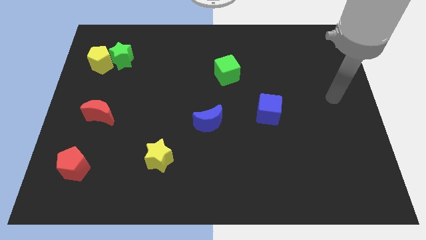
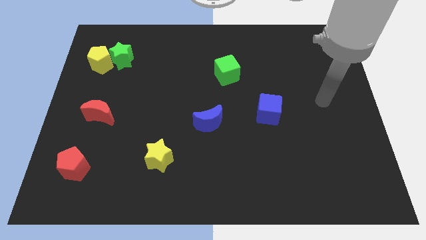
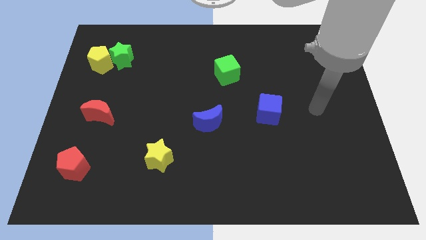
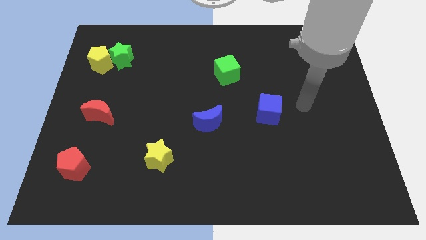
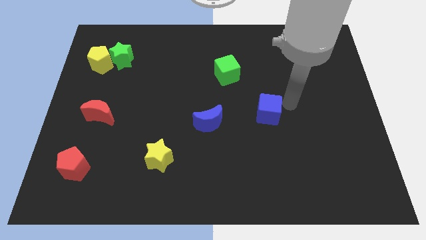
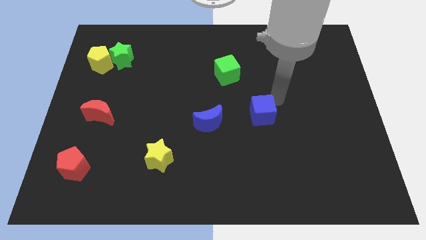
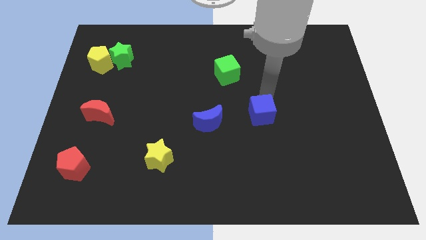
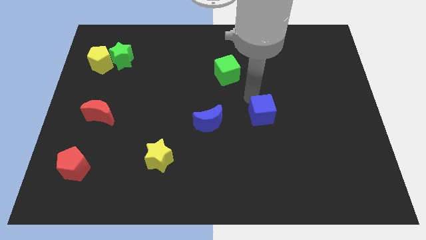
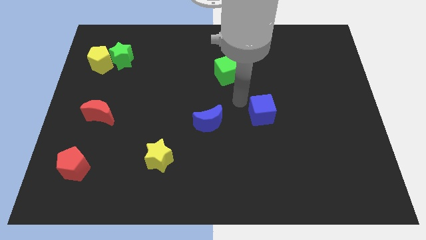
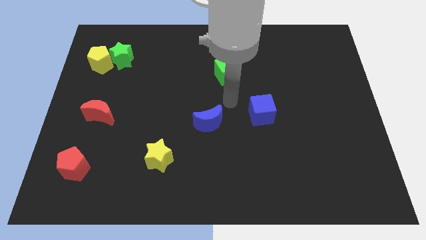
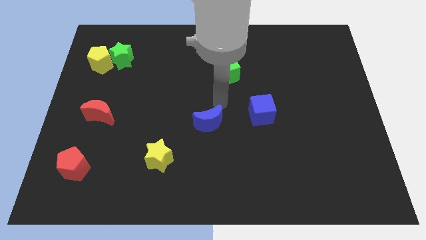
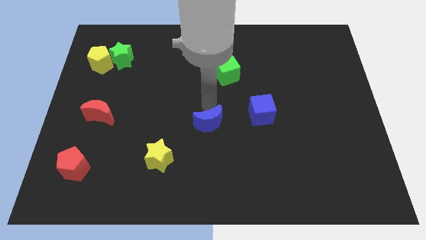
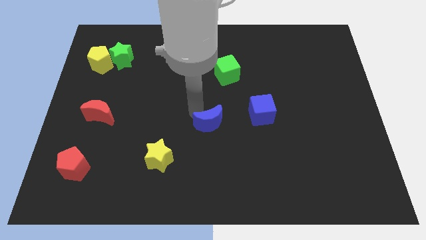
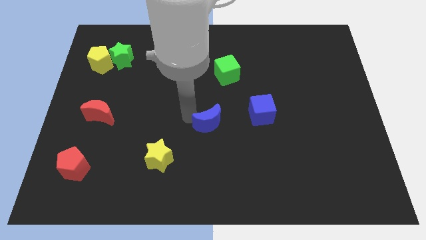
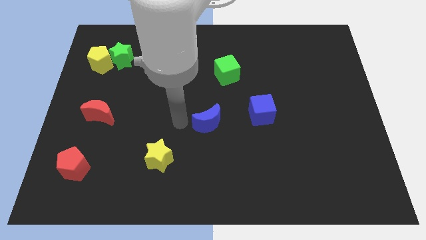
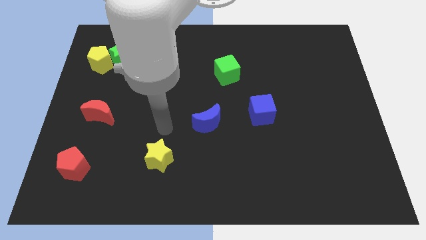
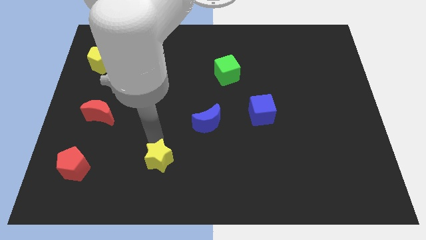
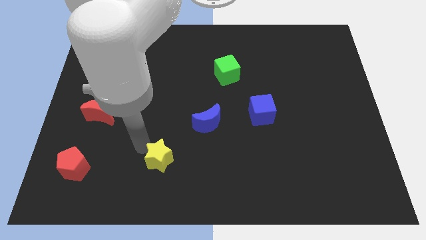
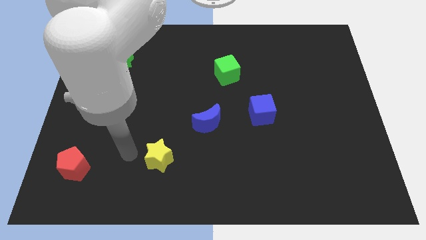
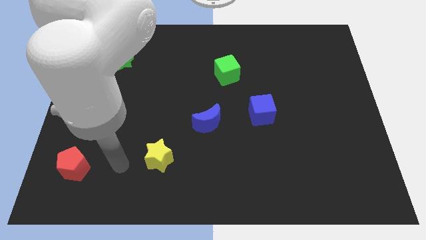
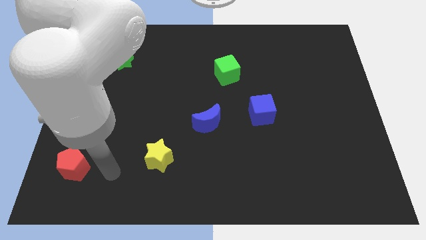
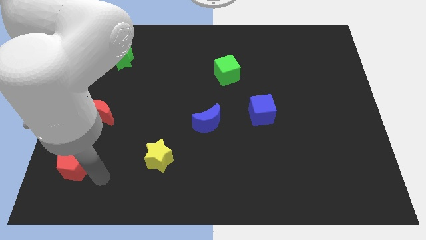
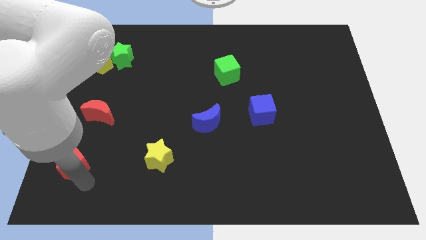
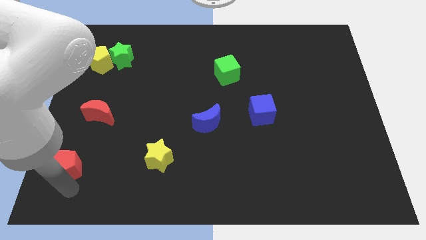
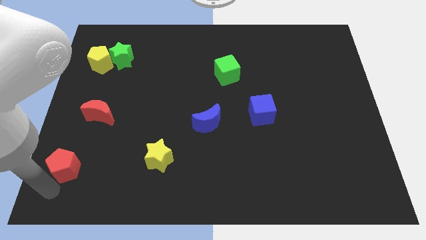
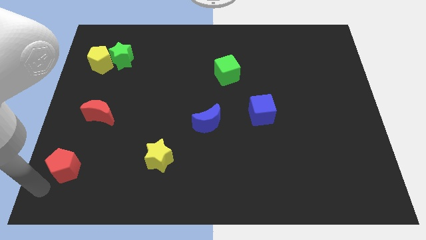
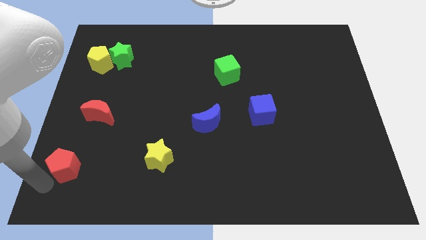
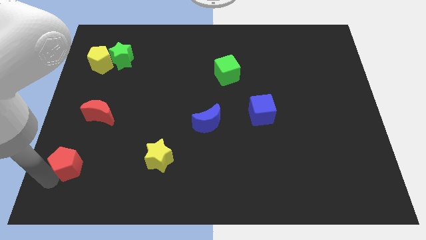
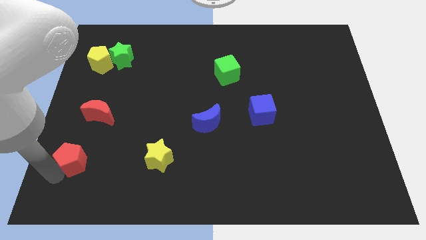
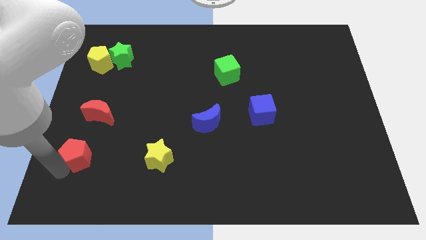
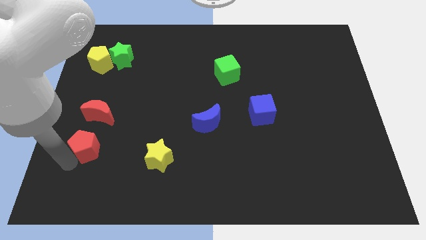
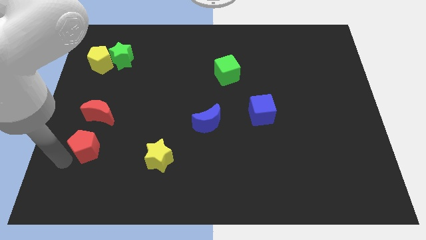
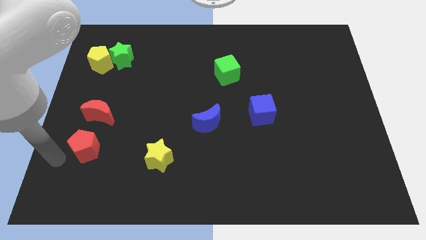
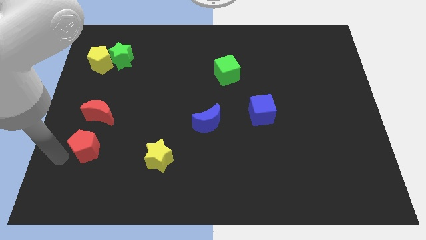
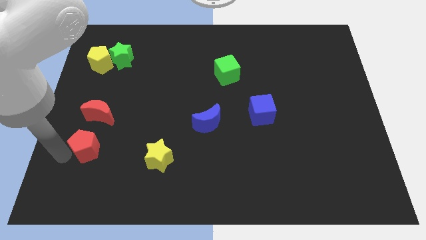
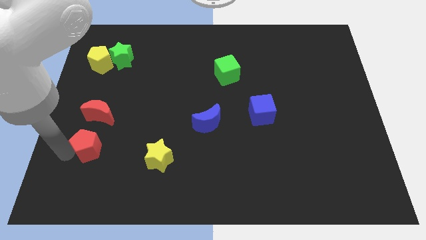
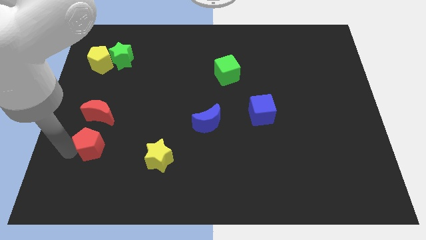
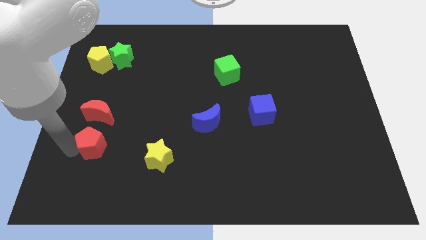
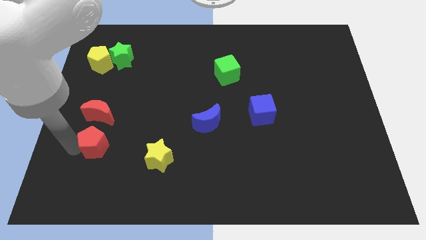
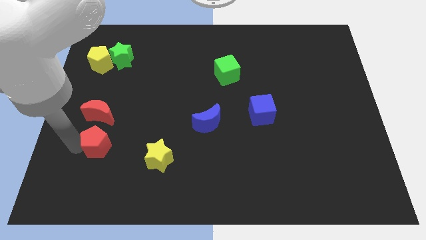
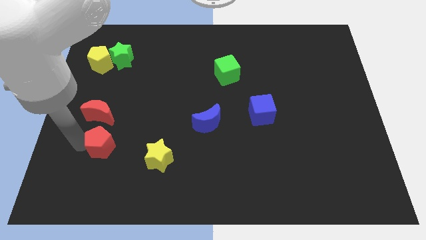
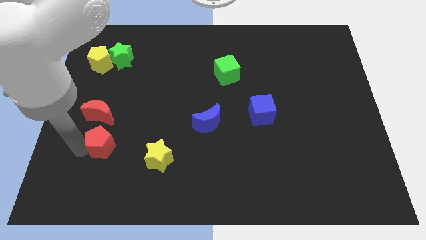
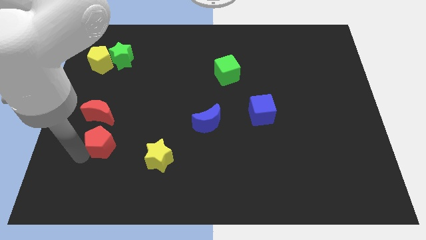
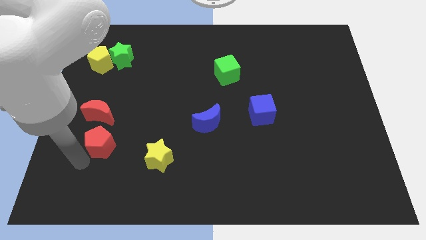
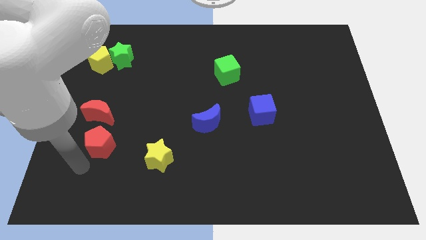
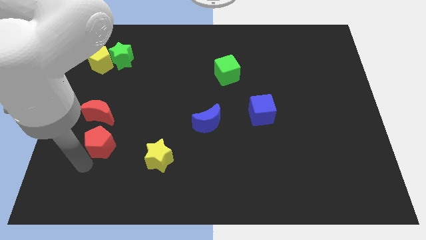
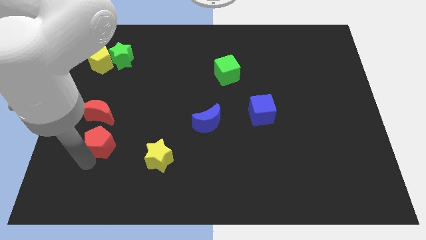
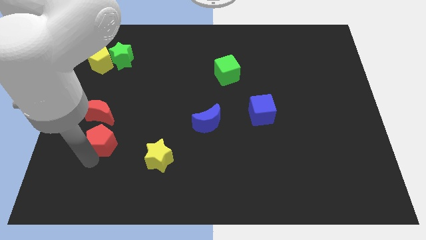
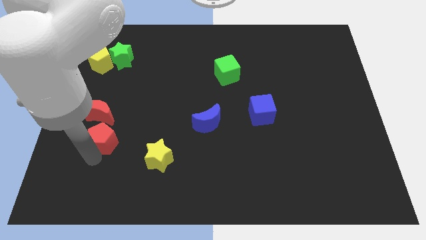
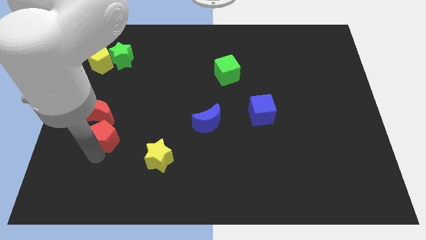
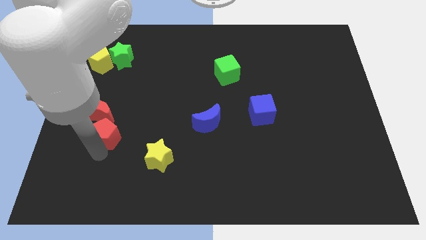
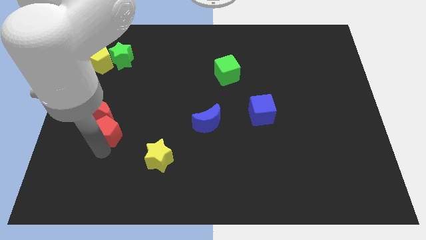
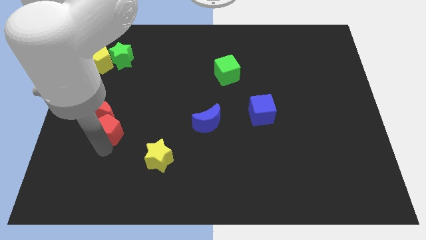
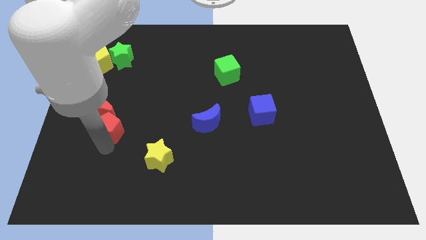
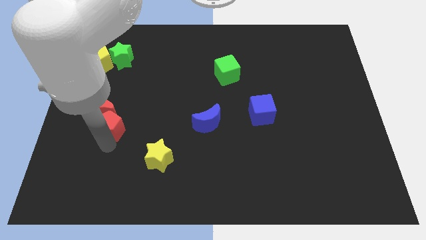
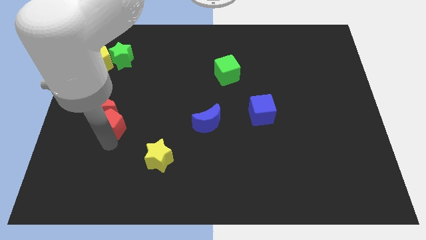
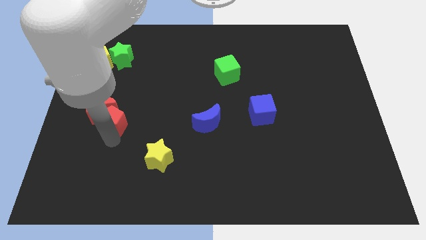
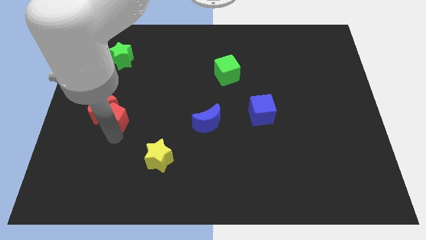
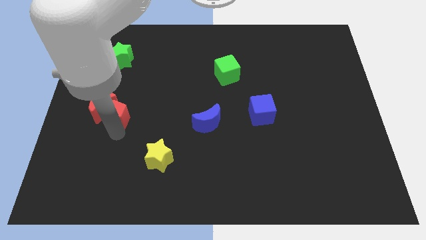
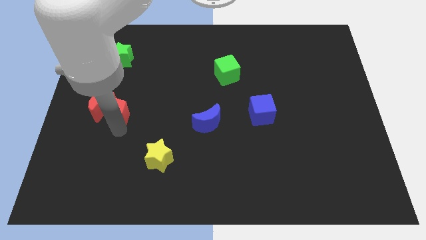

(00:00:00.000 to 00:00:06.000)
push the red pentagon to the top right of the red moon

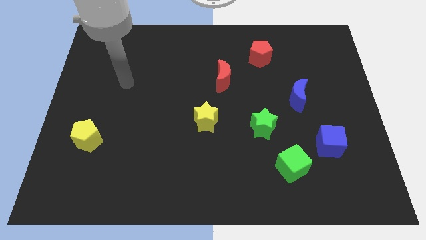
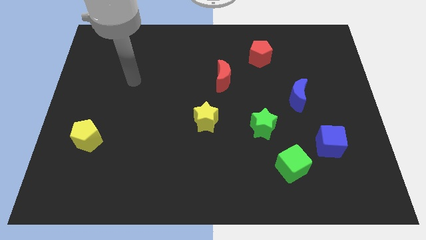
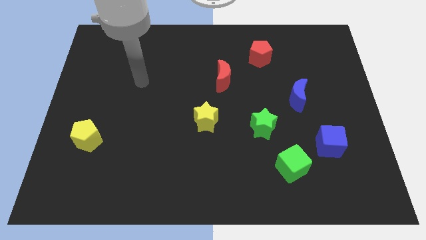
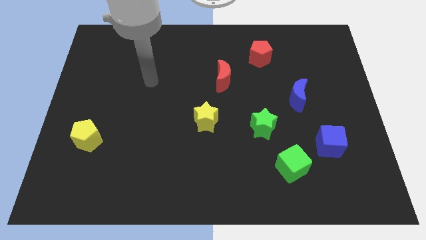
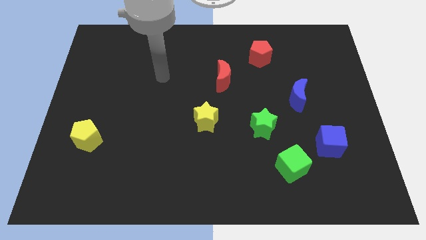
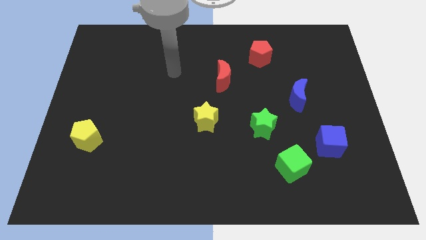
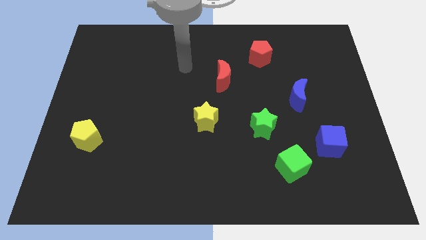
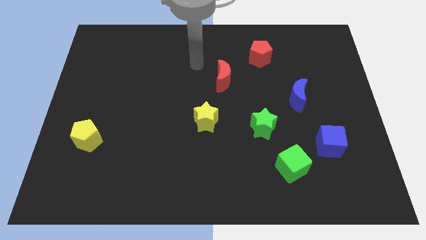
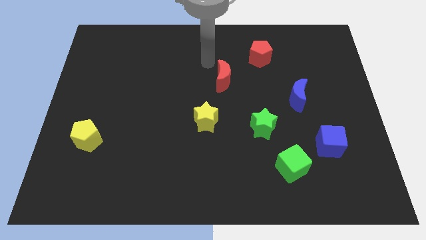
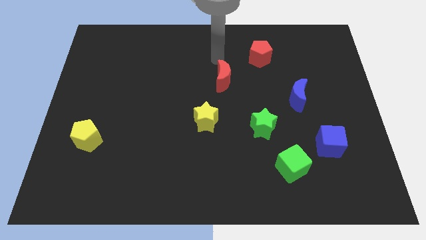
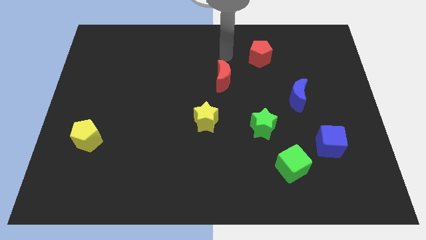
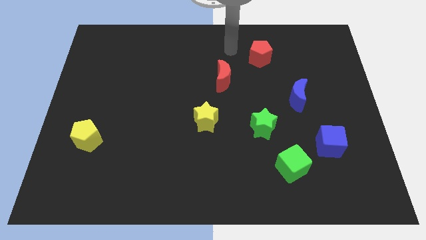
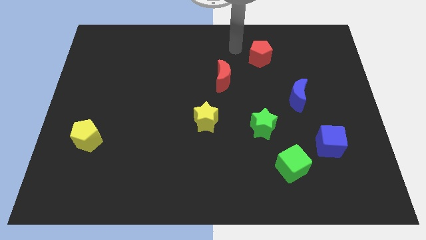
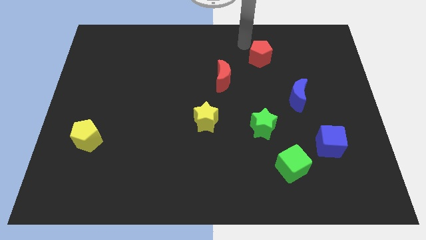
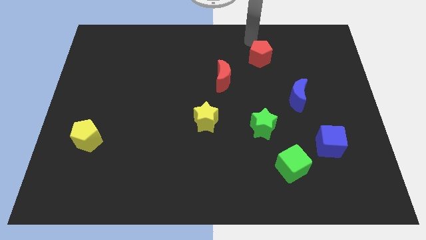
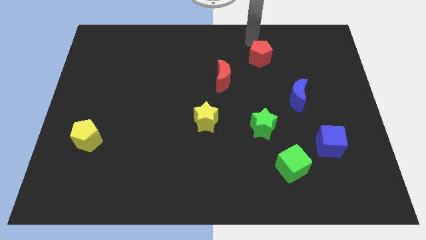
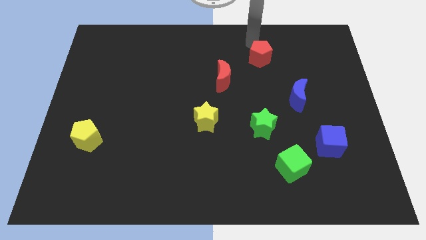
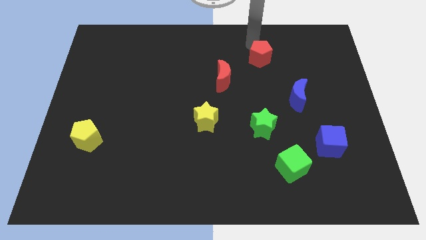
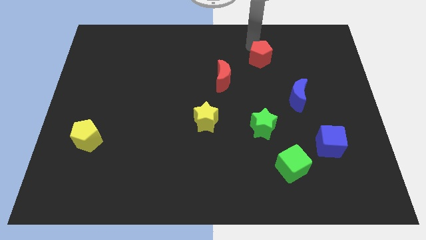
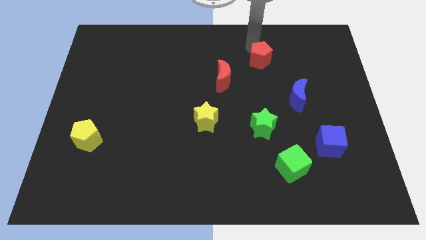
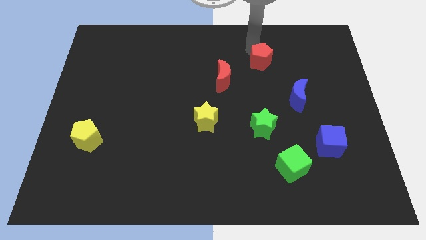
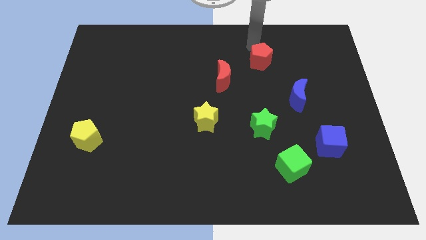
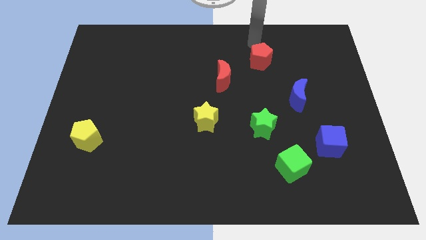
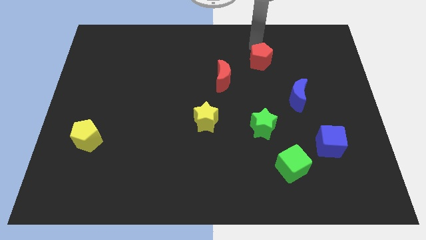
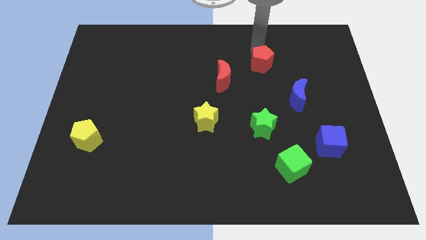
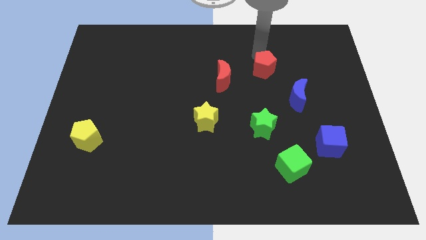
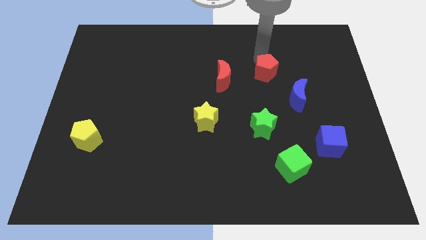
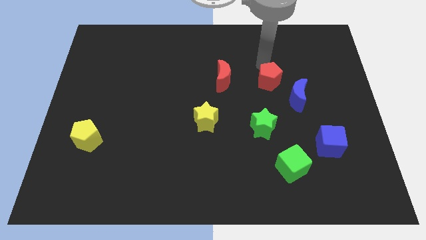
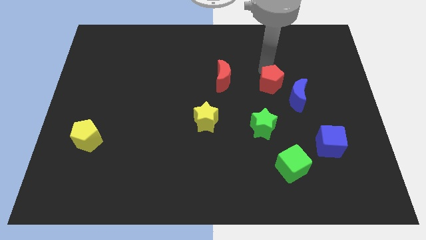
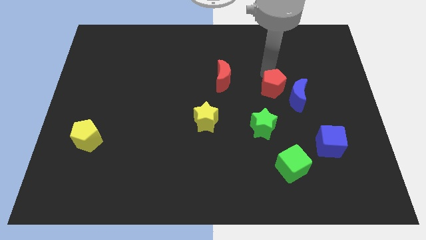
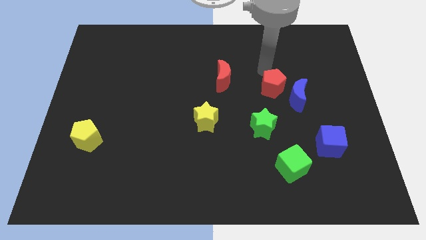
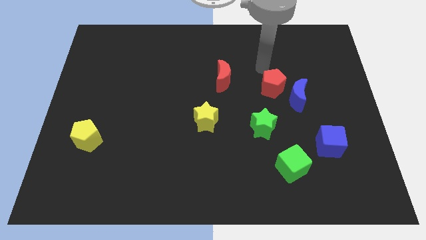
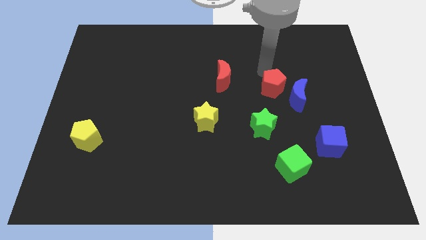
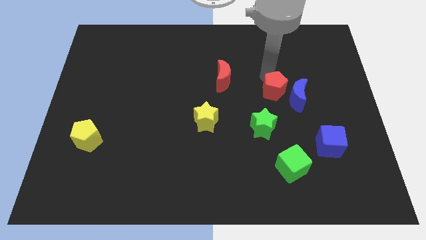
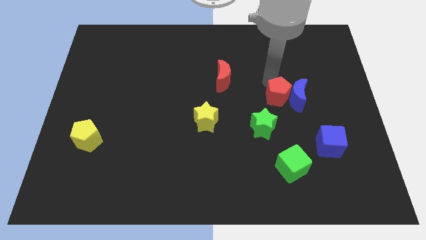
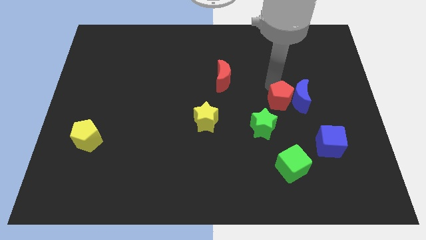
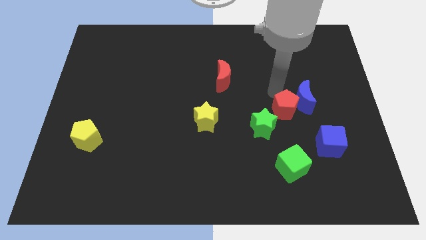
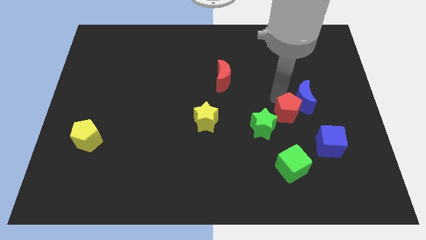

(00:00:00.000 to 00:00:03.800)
slide the red pentagon to the top left of the blue cube
